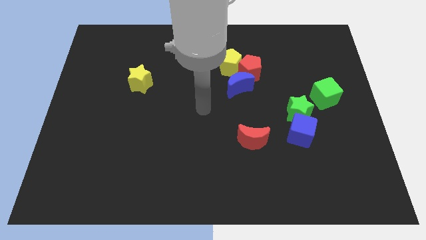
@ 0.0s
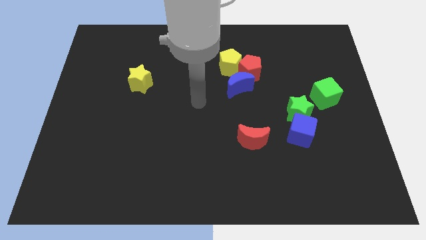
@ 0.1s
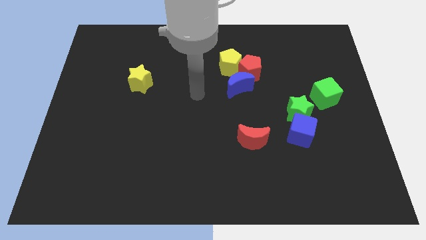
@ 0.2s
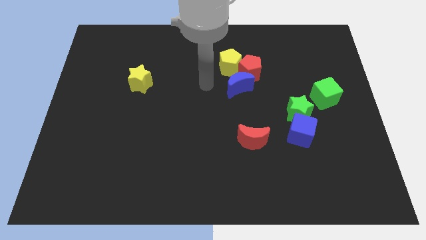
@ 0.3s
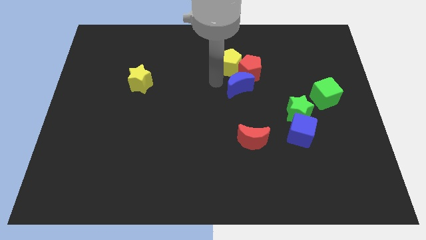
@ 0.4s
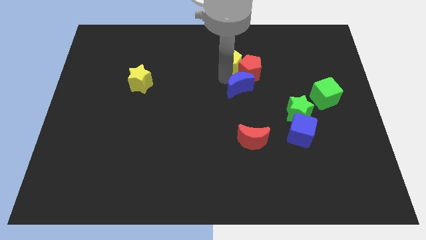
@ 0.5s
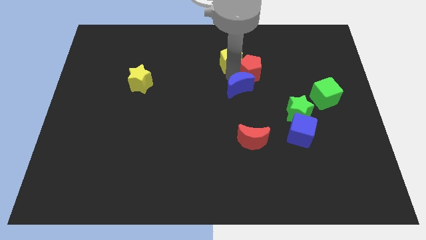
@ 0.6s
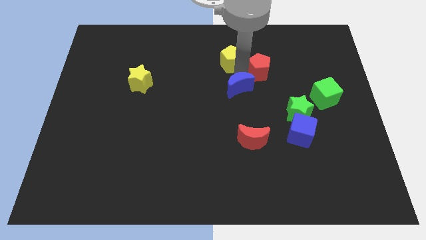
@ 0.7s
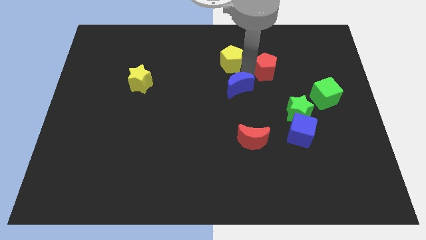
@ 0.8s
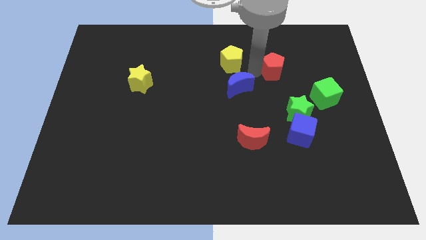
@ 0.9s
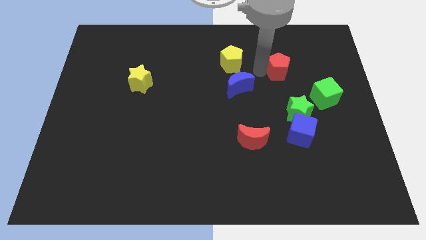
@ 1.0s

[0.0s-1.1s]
move the red pentagon away from the yellow pentagon and blue moon

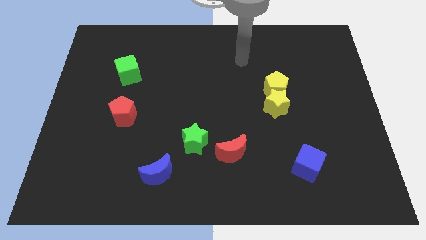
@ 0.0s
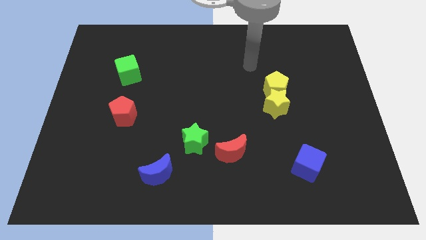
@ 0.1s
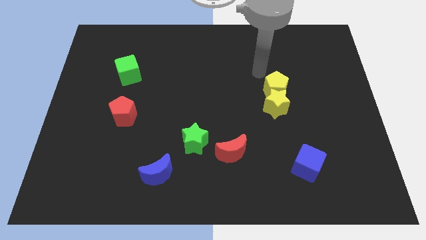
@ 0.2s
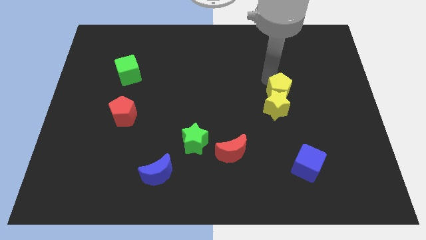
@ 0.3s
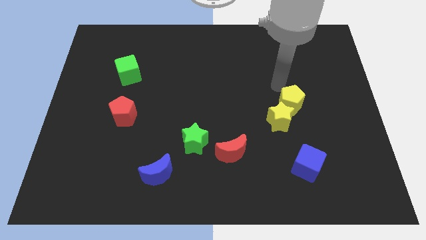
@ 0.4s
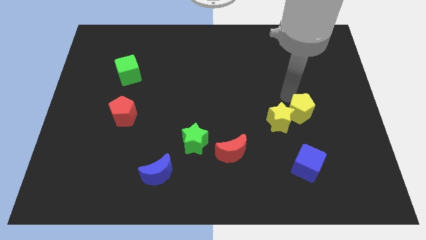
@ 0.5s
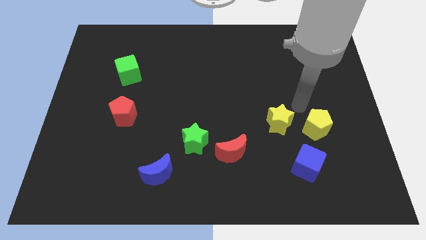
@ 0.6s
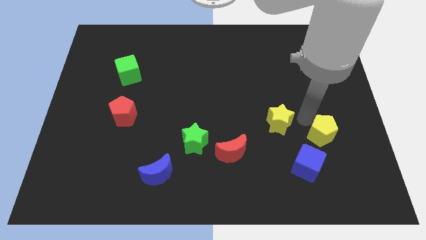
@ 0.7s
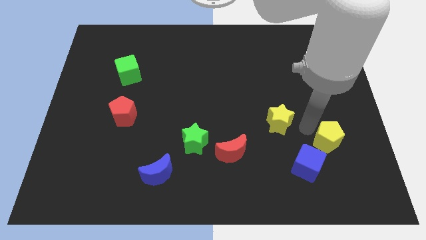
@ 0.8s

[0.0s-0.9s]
pull the yellow star apart from the yellow pentagon

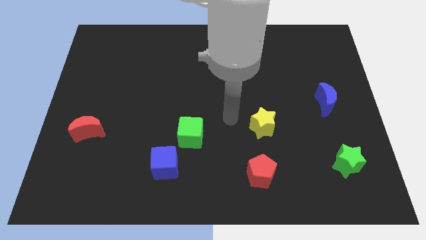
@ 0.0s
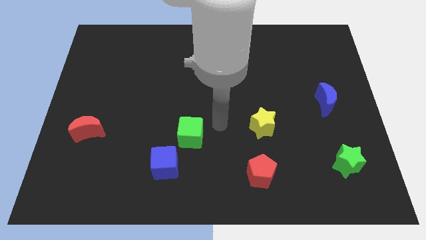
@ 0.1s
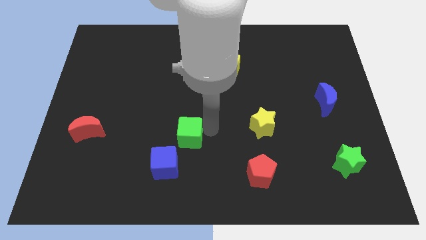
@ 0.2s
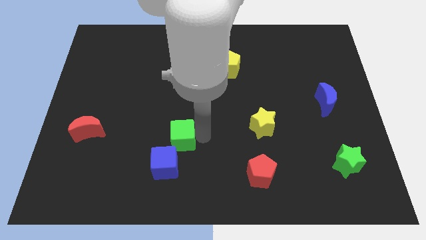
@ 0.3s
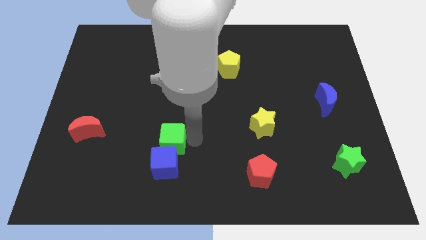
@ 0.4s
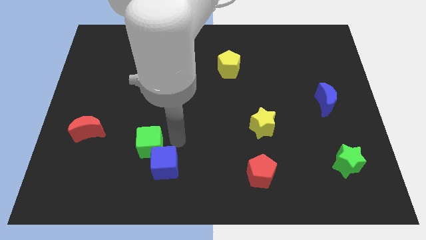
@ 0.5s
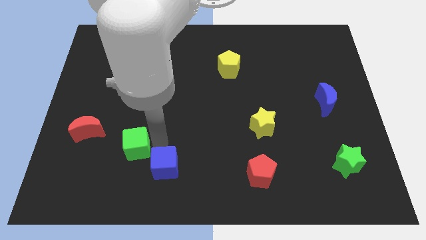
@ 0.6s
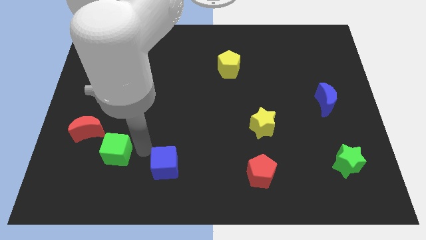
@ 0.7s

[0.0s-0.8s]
pull the blue cube apart from the green cube

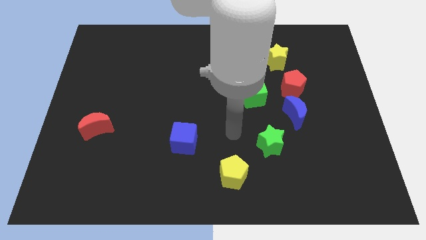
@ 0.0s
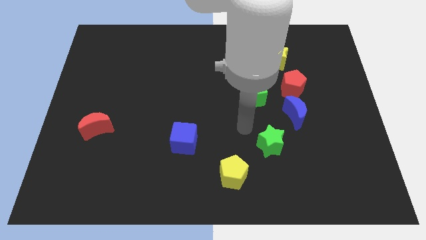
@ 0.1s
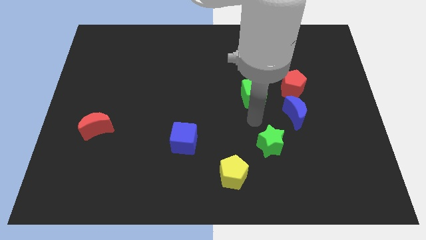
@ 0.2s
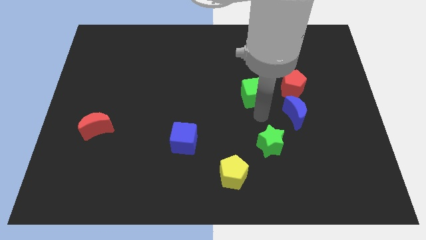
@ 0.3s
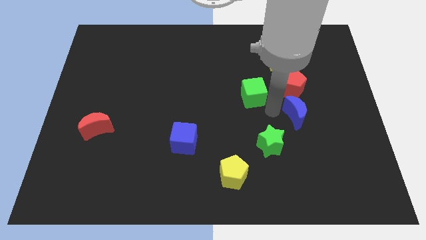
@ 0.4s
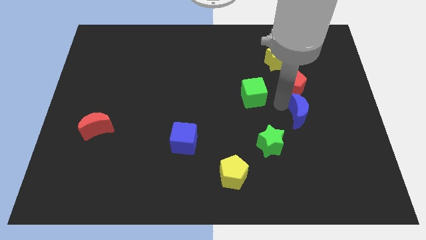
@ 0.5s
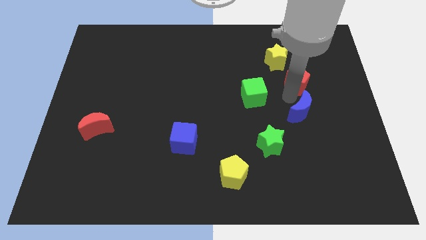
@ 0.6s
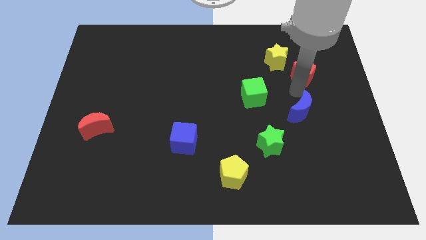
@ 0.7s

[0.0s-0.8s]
separate the blue moon from the red pentagon

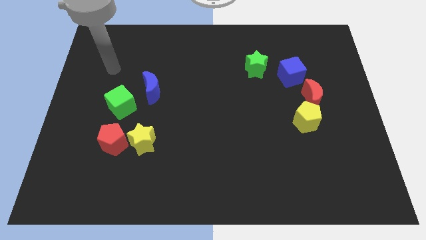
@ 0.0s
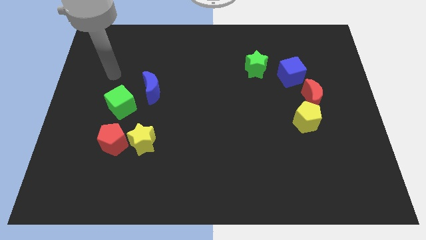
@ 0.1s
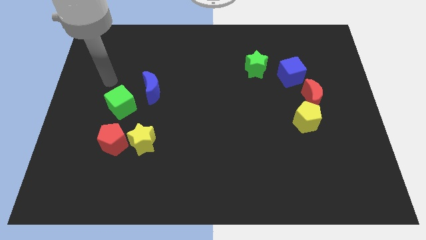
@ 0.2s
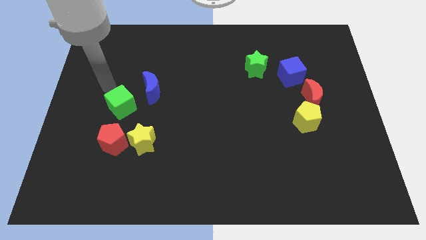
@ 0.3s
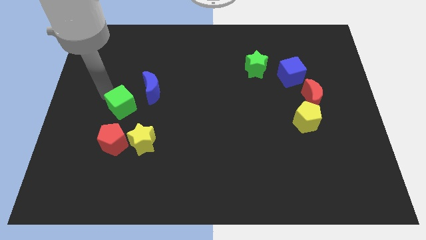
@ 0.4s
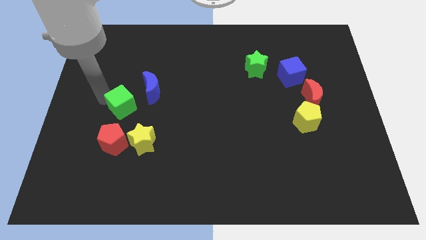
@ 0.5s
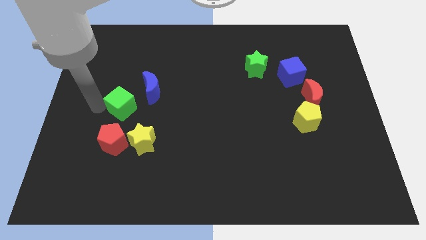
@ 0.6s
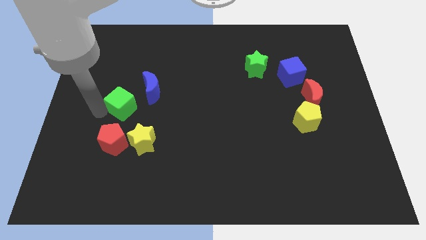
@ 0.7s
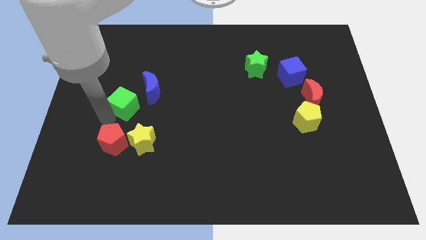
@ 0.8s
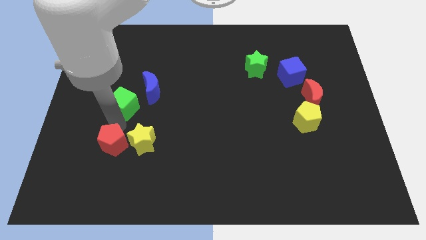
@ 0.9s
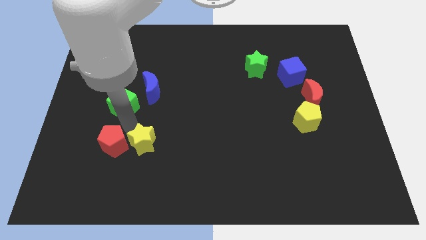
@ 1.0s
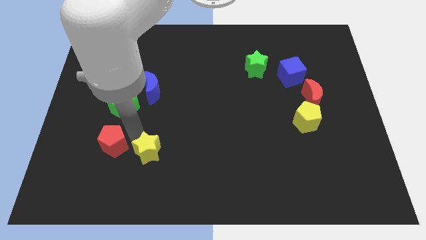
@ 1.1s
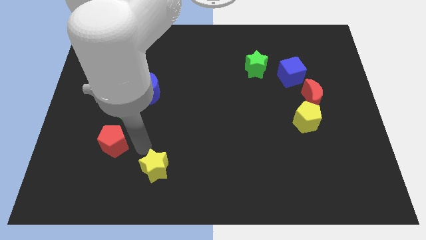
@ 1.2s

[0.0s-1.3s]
move the red pentagon away from the yellow star

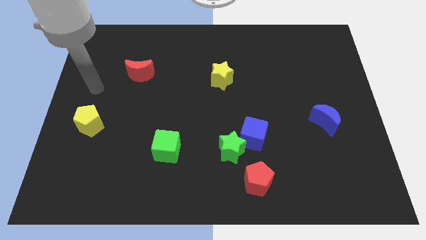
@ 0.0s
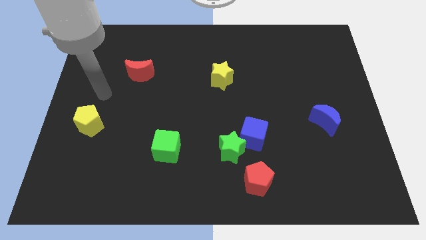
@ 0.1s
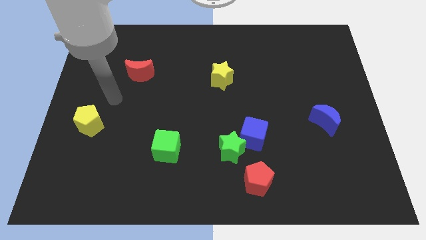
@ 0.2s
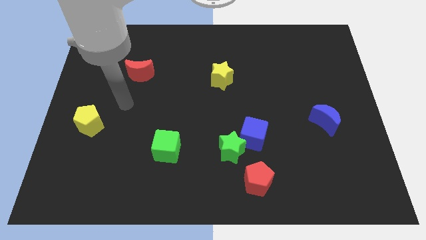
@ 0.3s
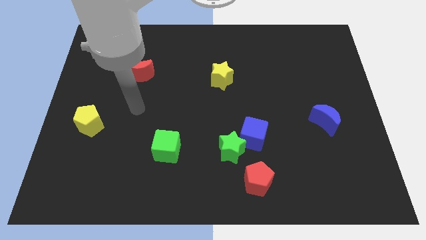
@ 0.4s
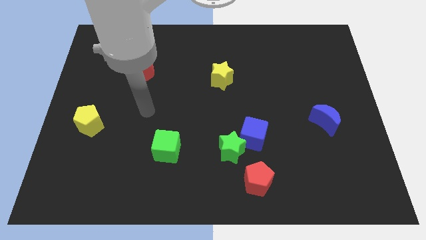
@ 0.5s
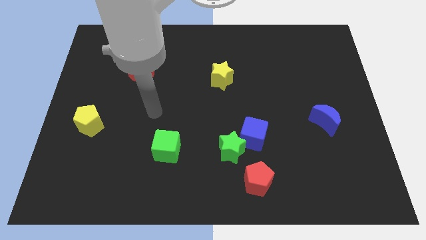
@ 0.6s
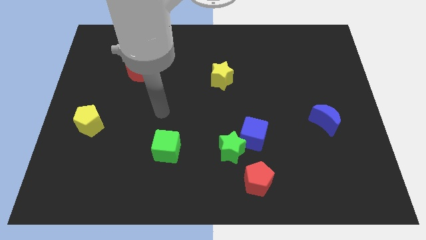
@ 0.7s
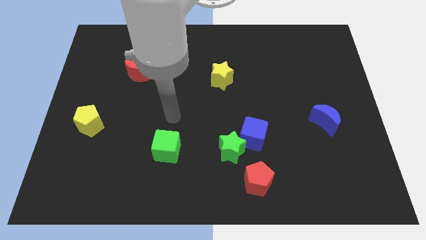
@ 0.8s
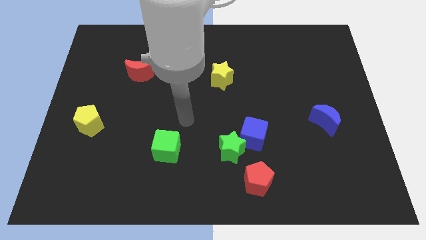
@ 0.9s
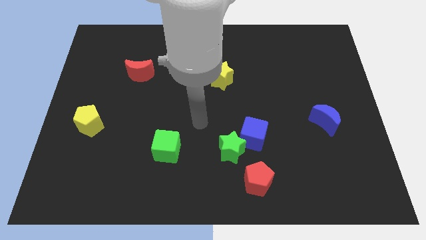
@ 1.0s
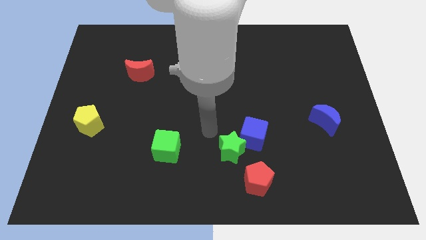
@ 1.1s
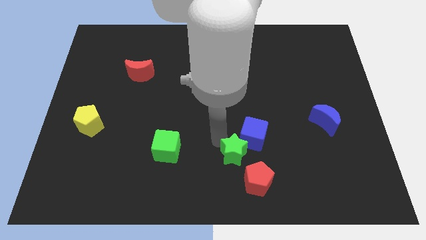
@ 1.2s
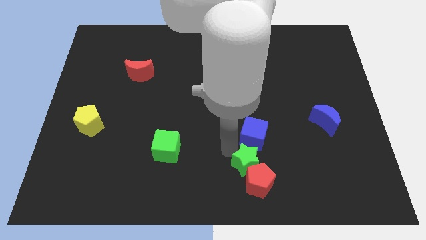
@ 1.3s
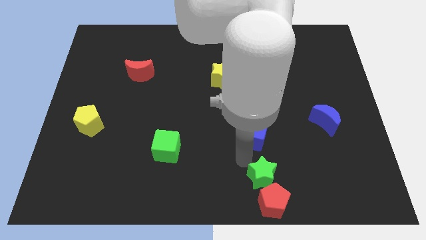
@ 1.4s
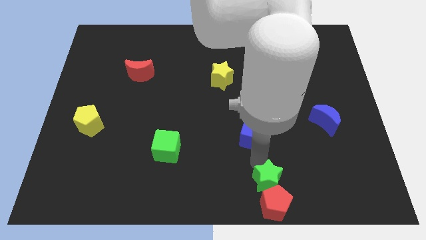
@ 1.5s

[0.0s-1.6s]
separate the blue cube from the green star

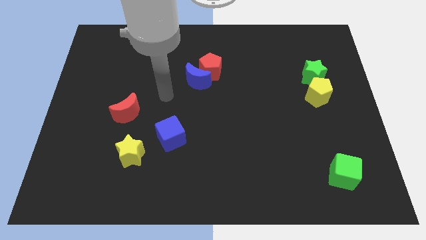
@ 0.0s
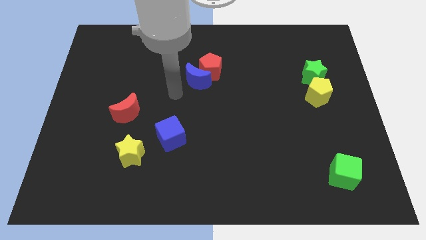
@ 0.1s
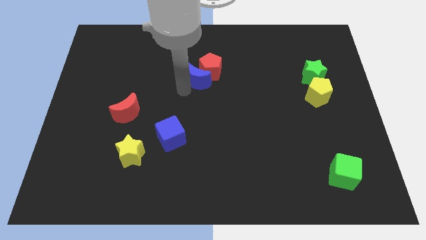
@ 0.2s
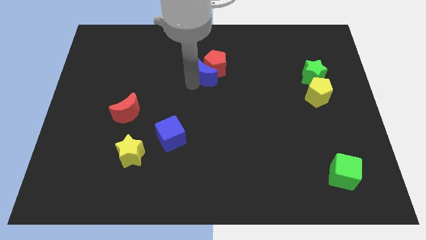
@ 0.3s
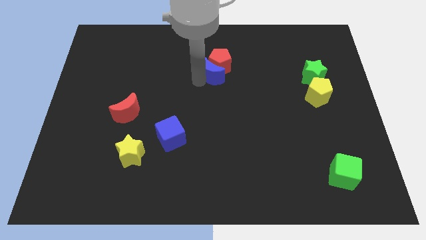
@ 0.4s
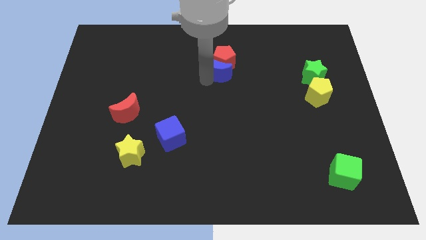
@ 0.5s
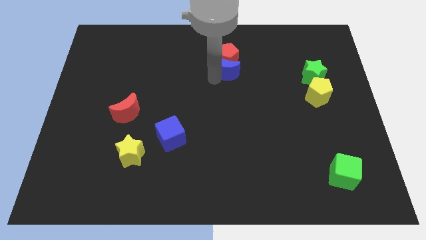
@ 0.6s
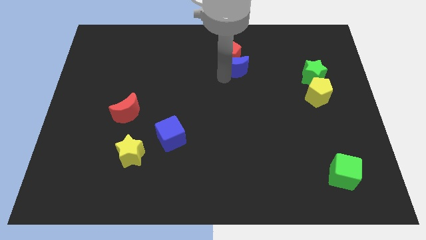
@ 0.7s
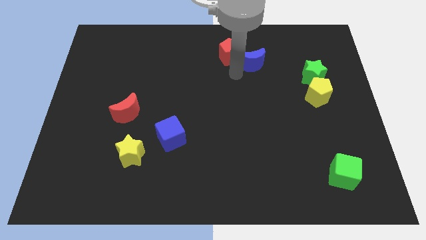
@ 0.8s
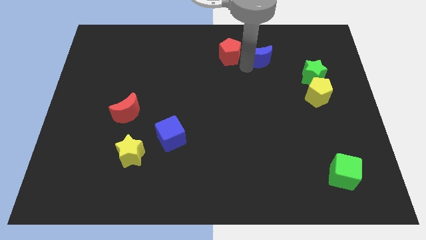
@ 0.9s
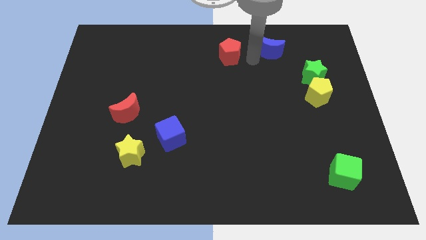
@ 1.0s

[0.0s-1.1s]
separate the red pentagon from the blue moon

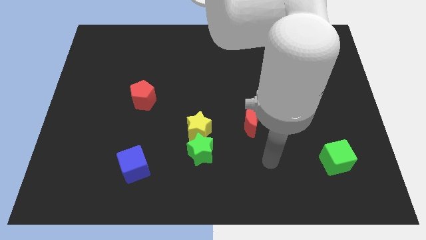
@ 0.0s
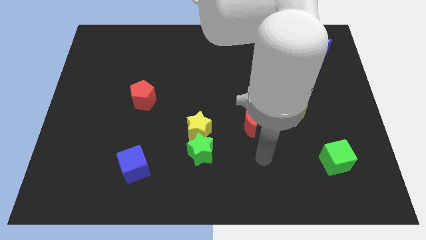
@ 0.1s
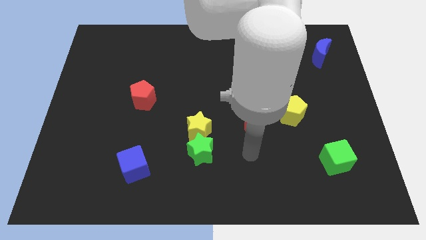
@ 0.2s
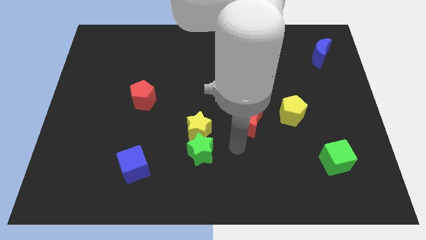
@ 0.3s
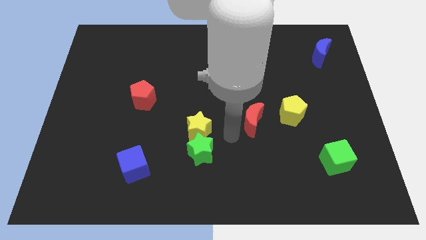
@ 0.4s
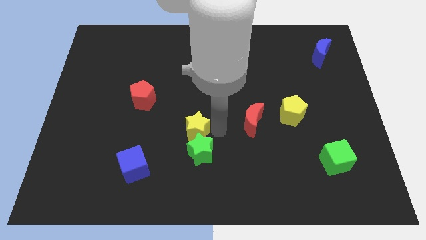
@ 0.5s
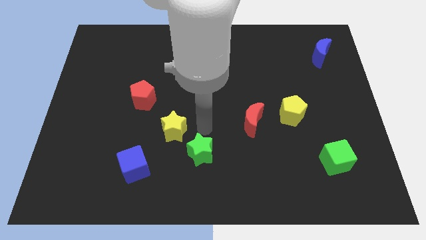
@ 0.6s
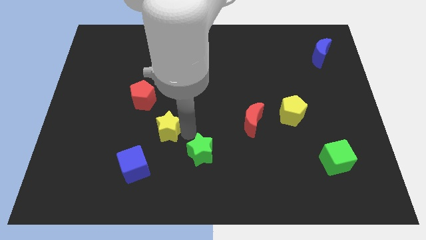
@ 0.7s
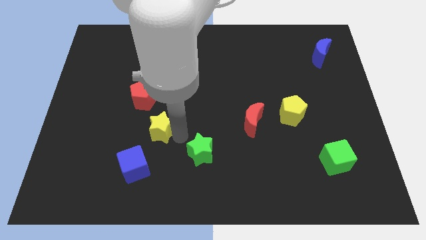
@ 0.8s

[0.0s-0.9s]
move the green star away from the yellow star

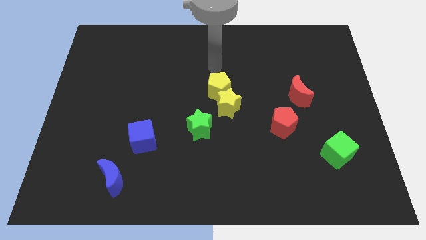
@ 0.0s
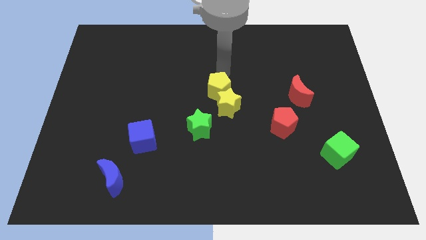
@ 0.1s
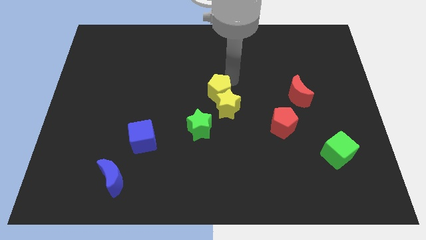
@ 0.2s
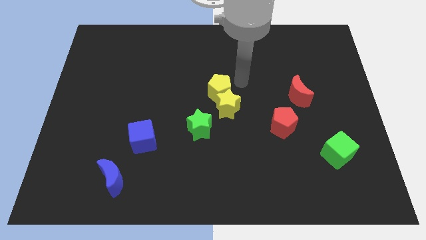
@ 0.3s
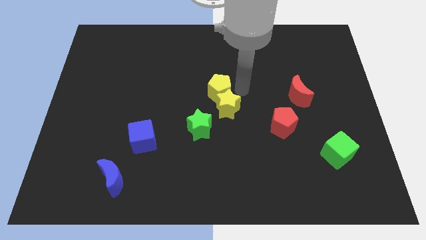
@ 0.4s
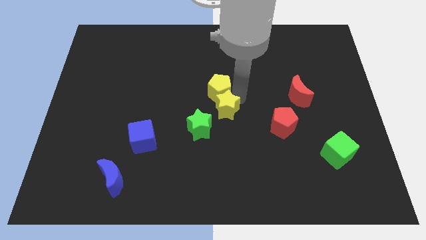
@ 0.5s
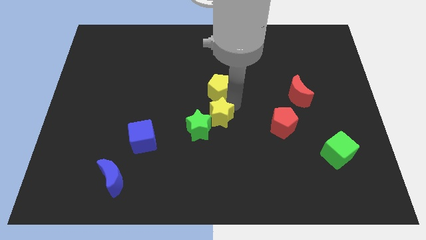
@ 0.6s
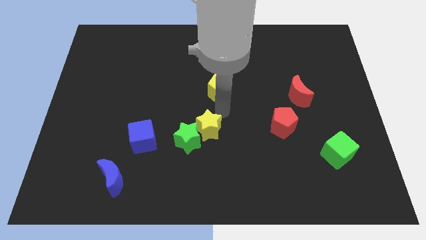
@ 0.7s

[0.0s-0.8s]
pull the yellow pentagon apart from the yellow star

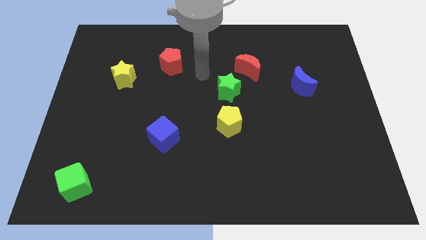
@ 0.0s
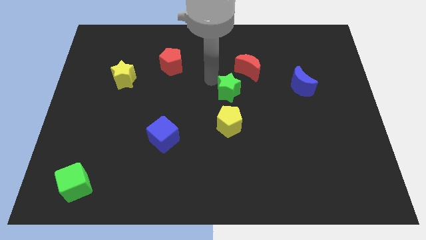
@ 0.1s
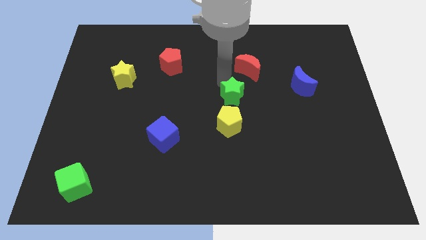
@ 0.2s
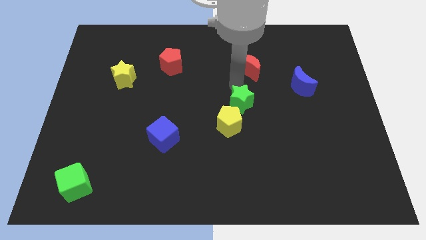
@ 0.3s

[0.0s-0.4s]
separate the red moon from the green star
